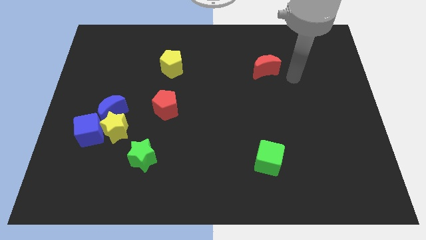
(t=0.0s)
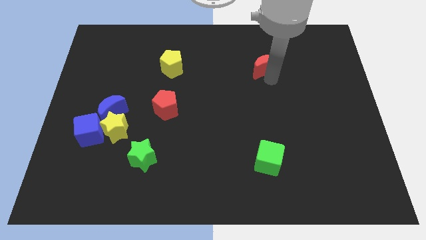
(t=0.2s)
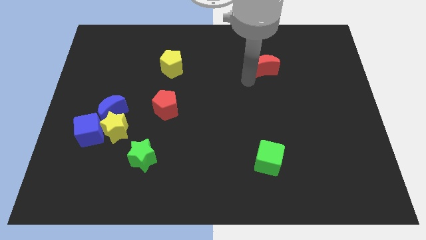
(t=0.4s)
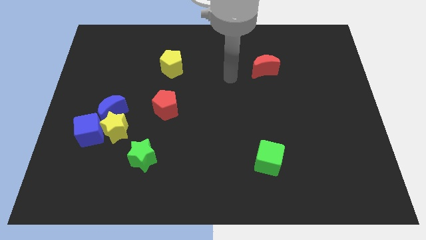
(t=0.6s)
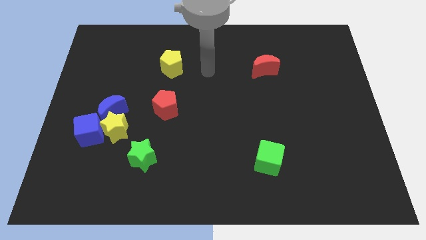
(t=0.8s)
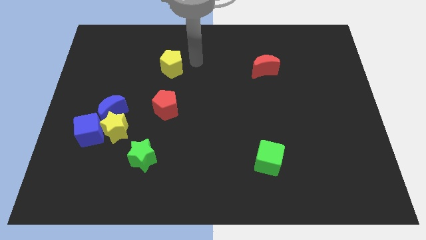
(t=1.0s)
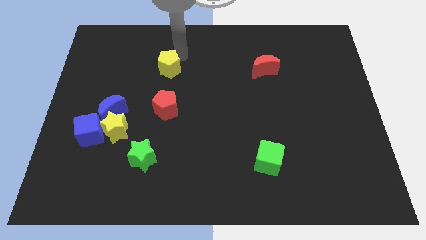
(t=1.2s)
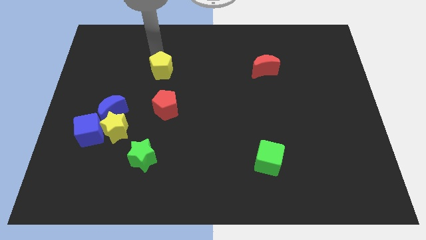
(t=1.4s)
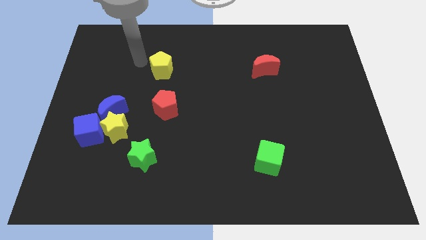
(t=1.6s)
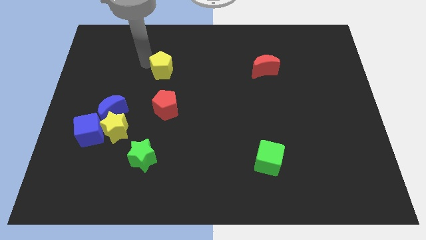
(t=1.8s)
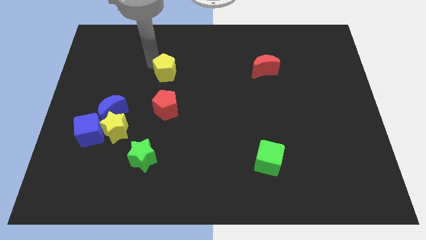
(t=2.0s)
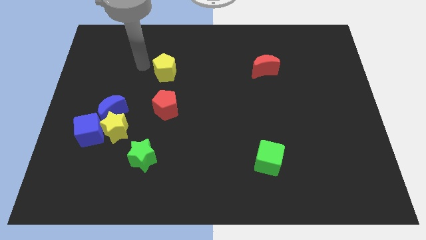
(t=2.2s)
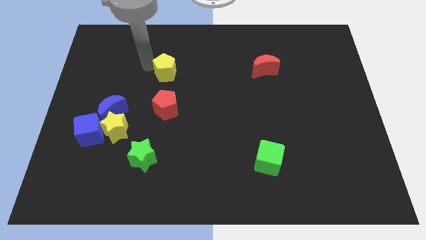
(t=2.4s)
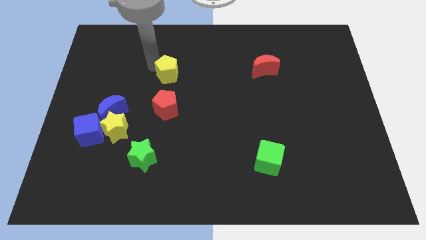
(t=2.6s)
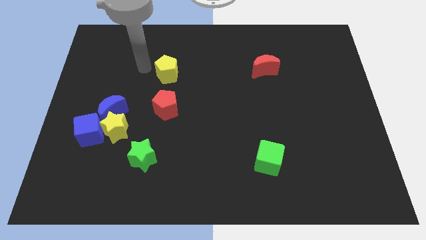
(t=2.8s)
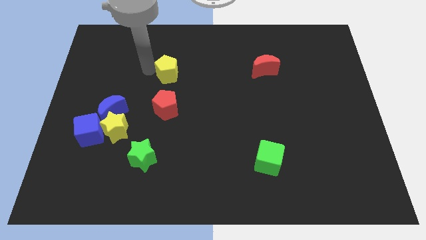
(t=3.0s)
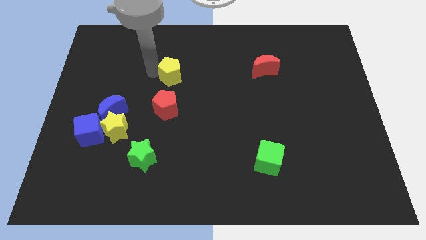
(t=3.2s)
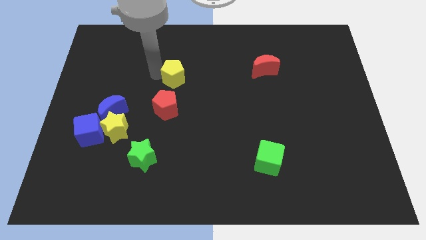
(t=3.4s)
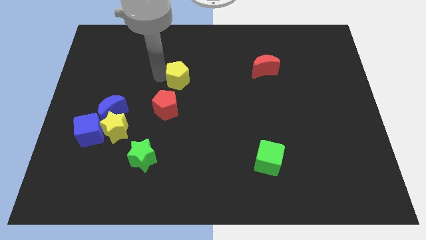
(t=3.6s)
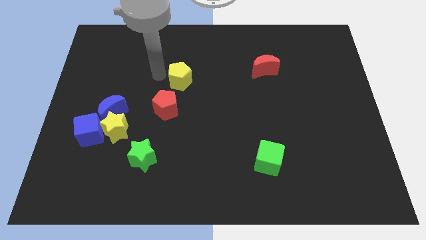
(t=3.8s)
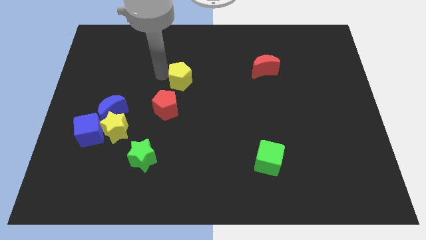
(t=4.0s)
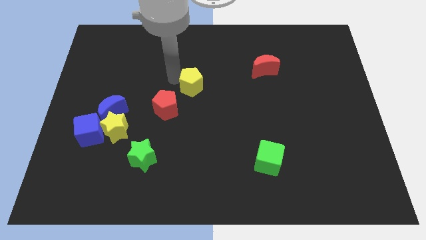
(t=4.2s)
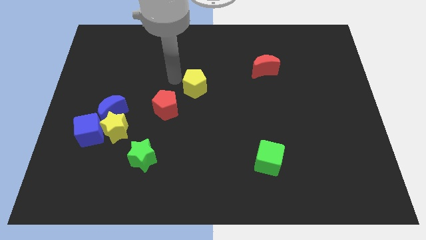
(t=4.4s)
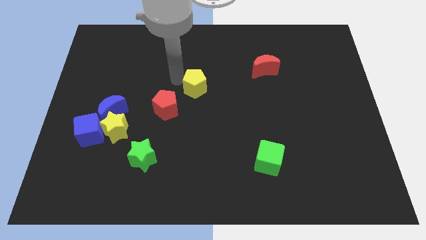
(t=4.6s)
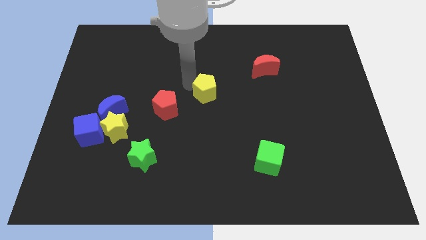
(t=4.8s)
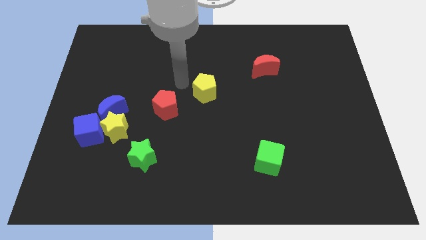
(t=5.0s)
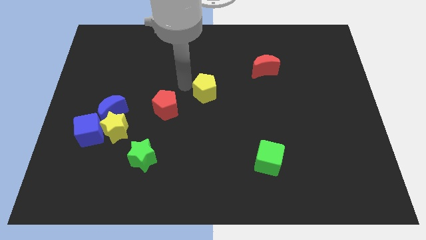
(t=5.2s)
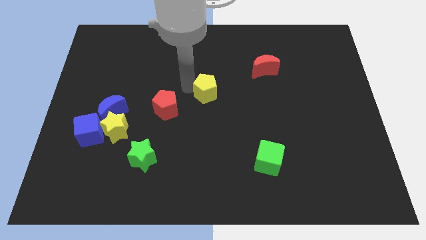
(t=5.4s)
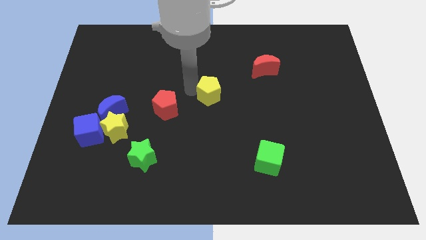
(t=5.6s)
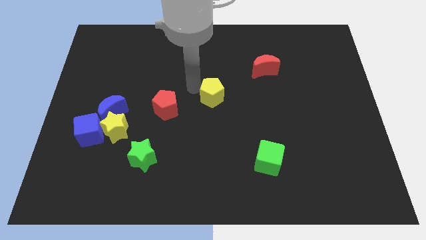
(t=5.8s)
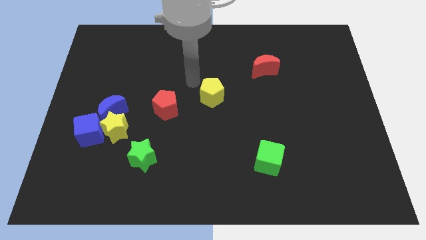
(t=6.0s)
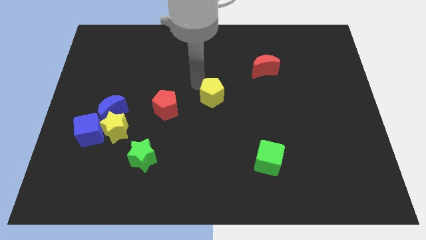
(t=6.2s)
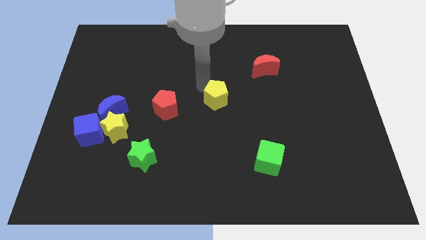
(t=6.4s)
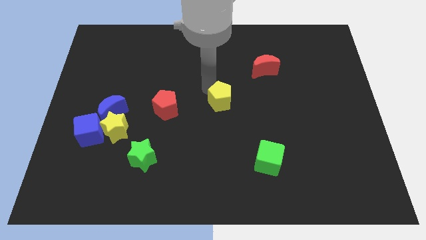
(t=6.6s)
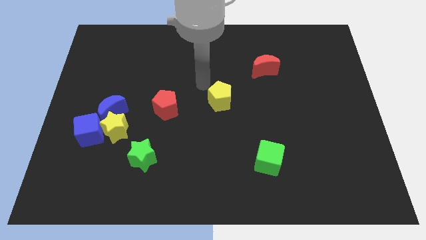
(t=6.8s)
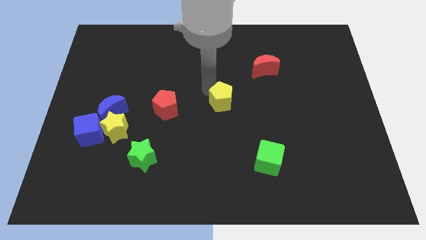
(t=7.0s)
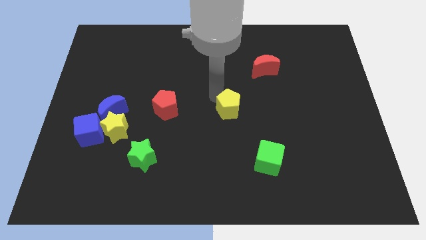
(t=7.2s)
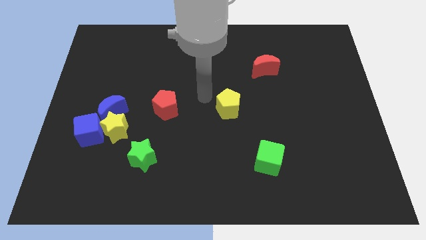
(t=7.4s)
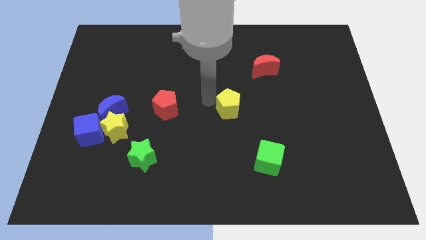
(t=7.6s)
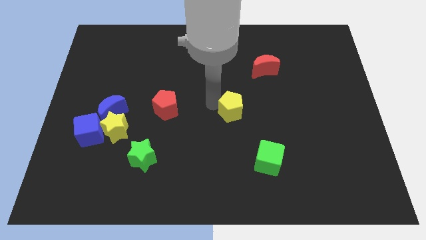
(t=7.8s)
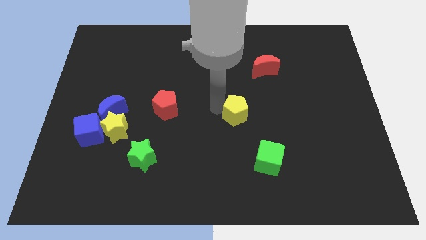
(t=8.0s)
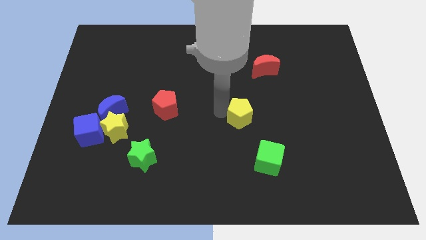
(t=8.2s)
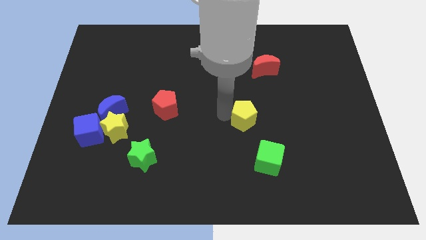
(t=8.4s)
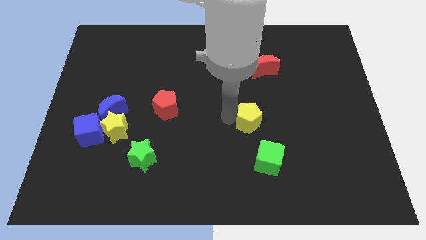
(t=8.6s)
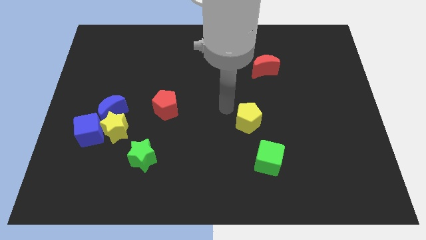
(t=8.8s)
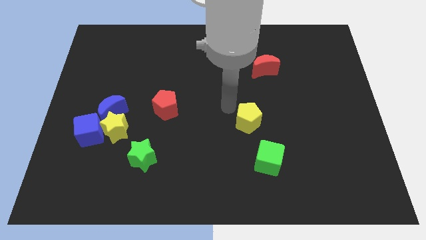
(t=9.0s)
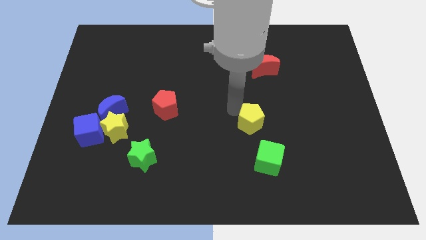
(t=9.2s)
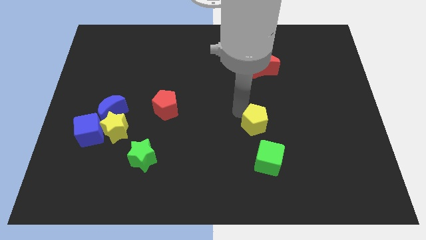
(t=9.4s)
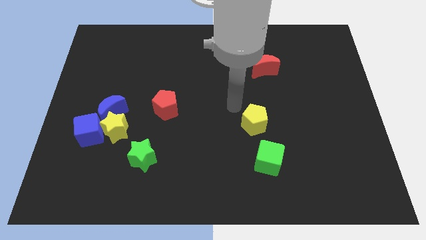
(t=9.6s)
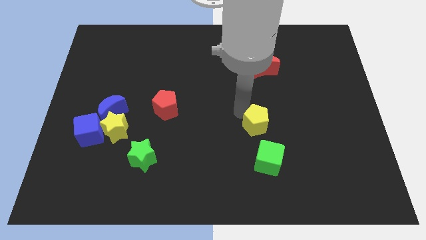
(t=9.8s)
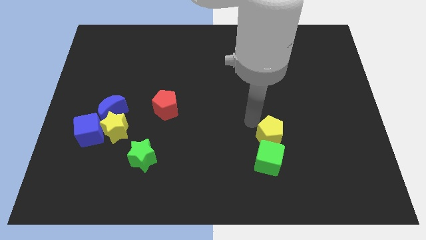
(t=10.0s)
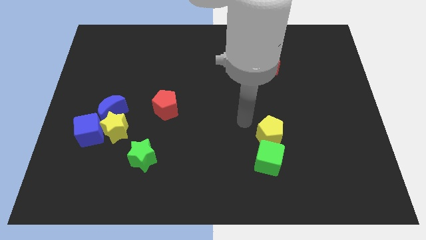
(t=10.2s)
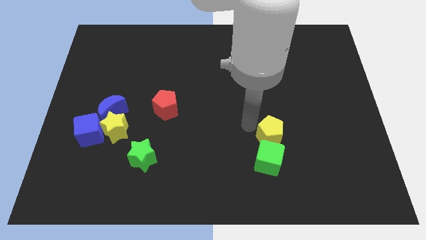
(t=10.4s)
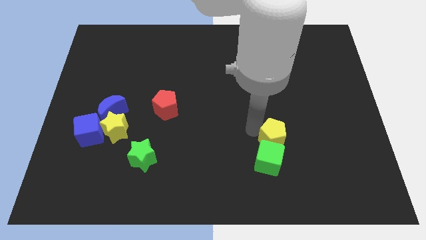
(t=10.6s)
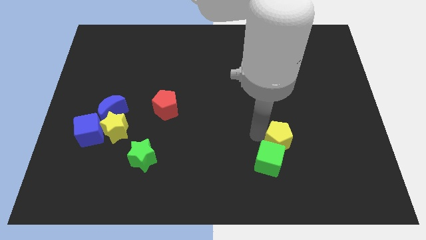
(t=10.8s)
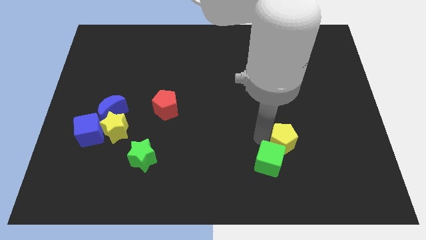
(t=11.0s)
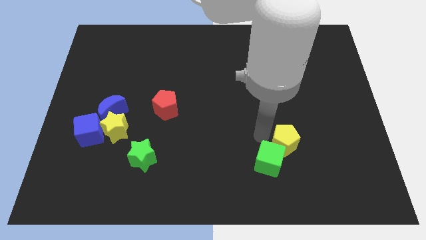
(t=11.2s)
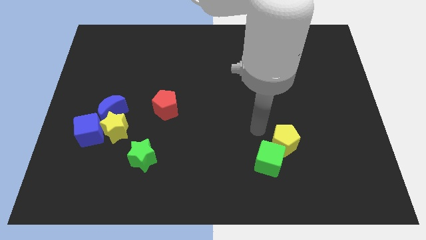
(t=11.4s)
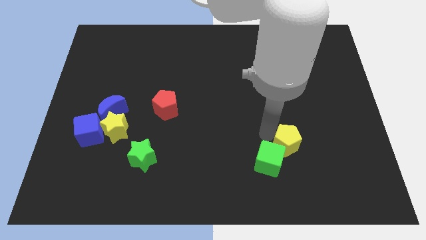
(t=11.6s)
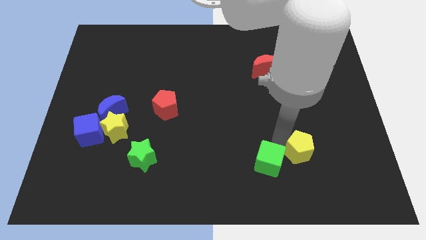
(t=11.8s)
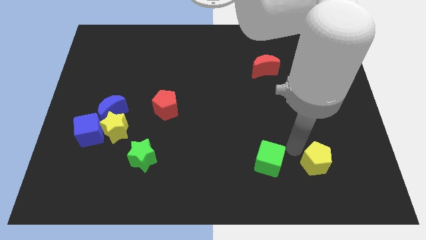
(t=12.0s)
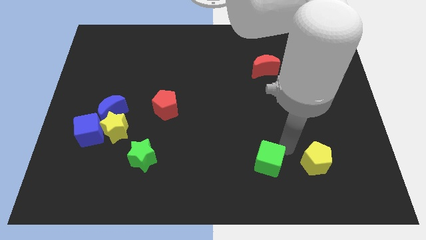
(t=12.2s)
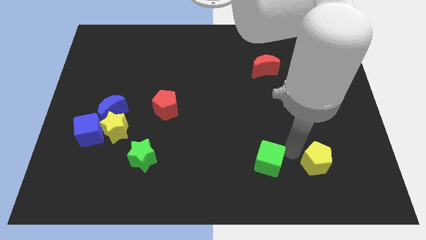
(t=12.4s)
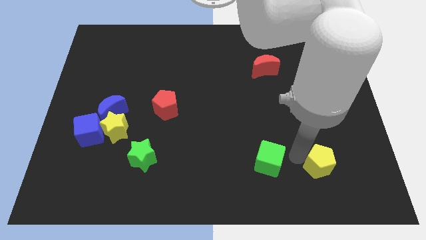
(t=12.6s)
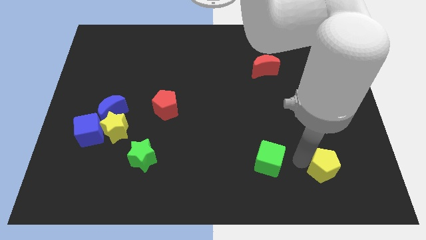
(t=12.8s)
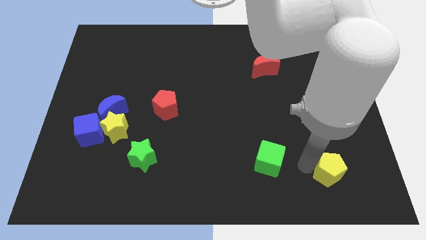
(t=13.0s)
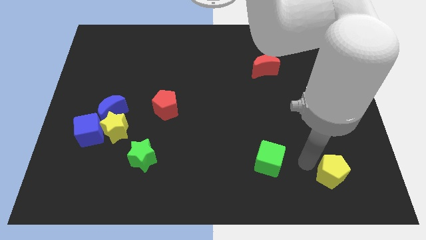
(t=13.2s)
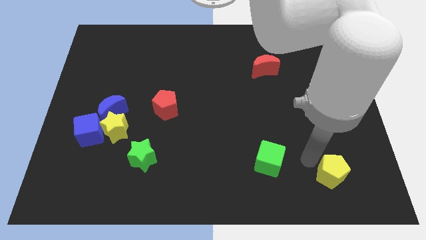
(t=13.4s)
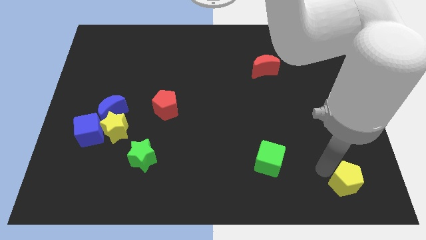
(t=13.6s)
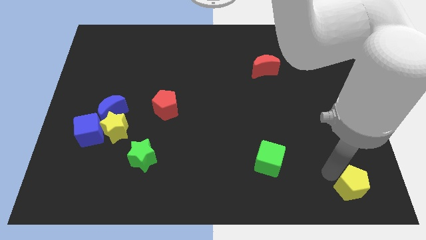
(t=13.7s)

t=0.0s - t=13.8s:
move the yellow pentagon to the bottom right of the board

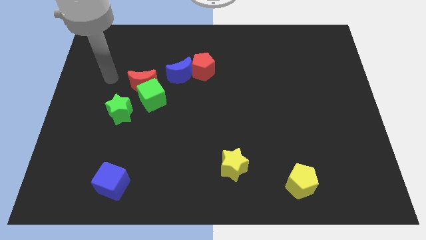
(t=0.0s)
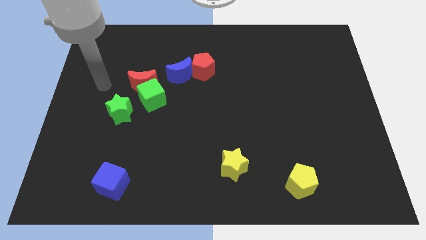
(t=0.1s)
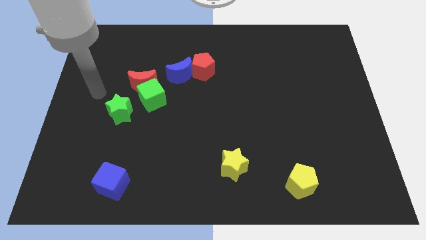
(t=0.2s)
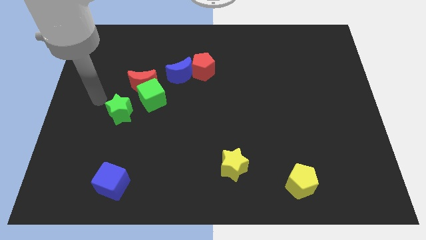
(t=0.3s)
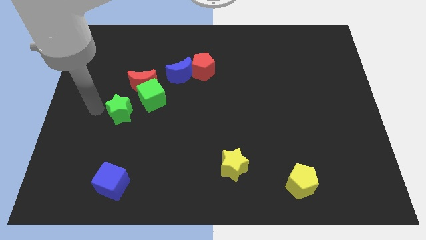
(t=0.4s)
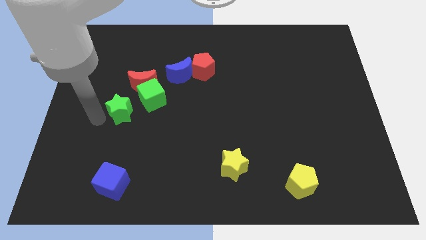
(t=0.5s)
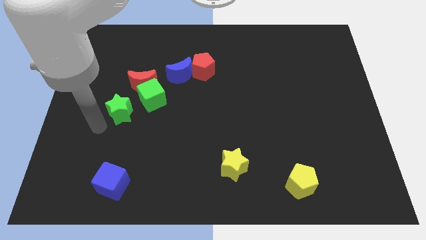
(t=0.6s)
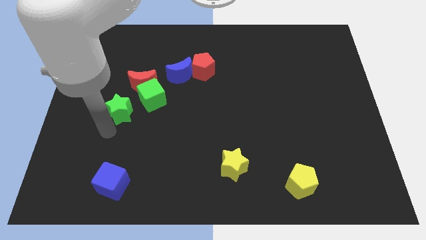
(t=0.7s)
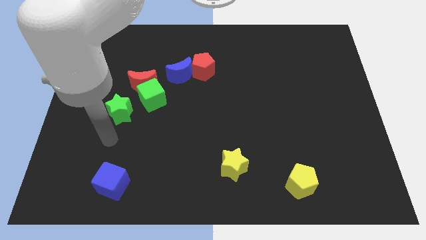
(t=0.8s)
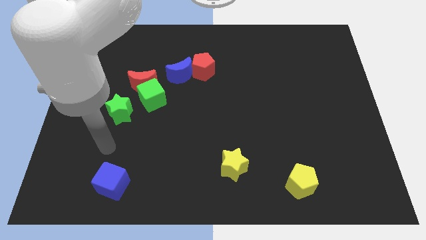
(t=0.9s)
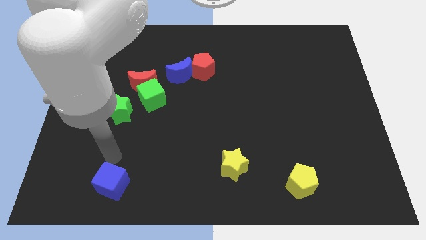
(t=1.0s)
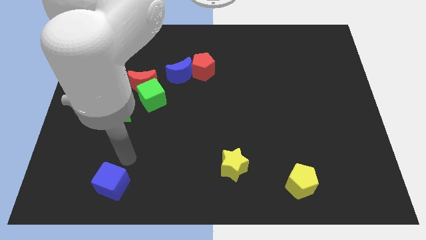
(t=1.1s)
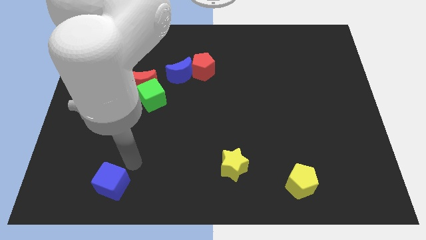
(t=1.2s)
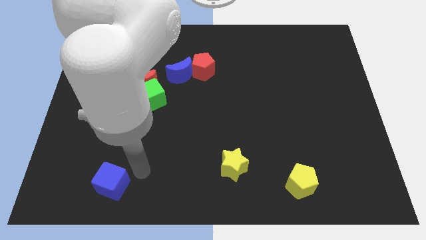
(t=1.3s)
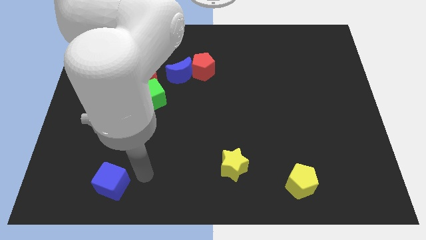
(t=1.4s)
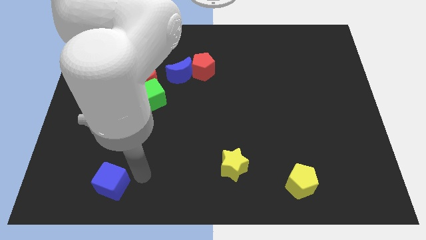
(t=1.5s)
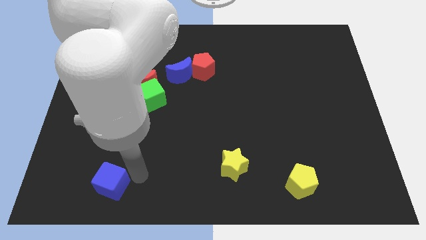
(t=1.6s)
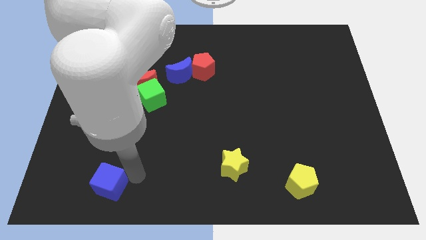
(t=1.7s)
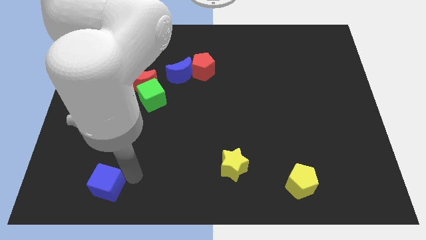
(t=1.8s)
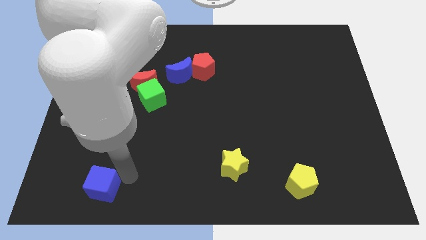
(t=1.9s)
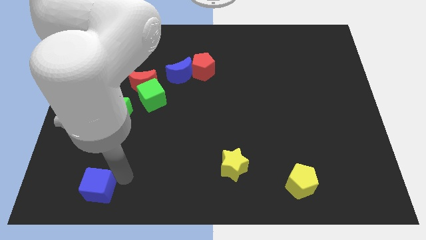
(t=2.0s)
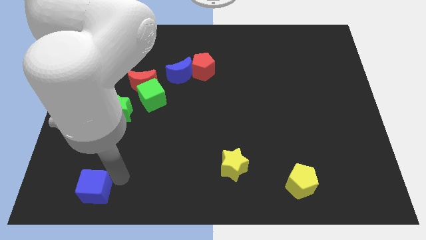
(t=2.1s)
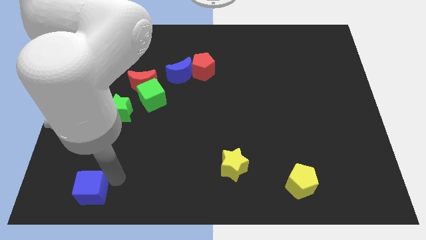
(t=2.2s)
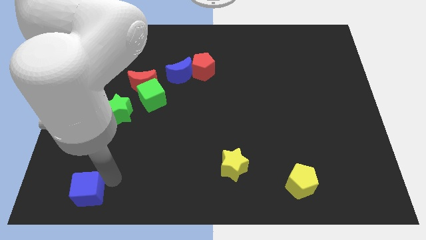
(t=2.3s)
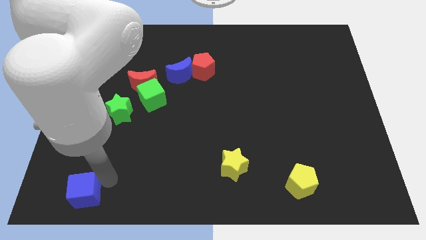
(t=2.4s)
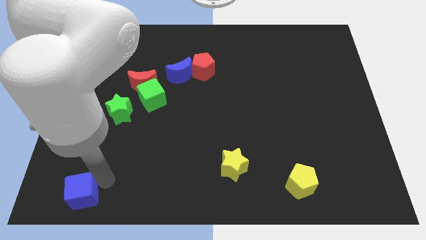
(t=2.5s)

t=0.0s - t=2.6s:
move the blue cube to the bottom left
